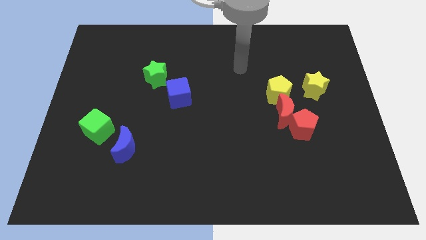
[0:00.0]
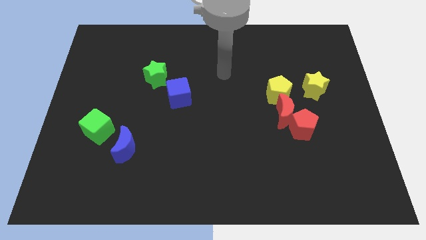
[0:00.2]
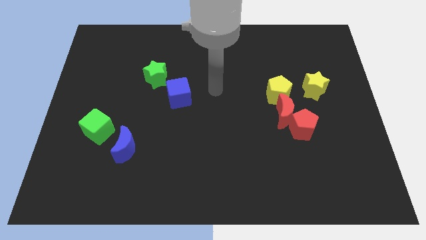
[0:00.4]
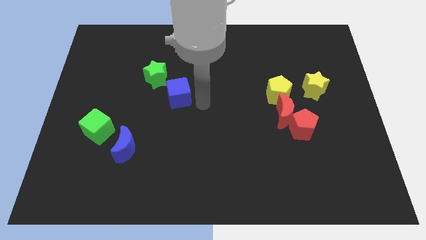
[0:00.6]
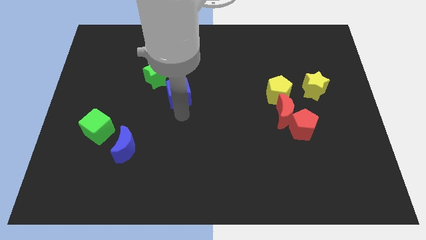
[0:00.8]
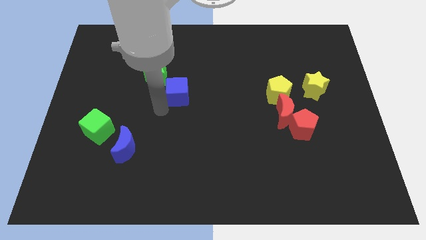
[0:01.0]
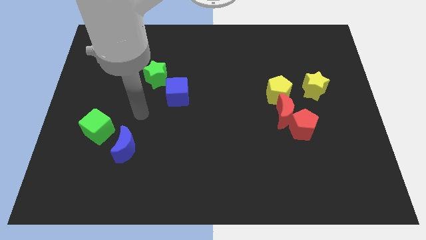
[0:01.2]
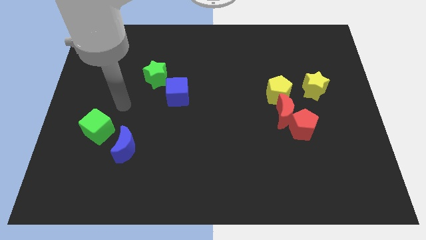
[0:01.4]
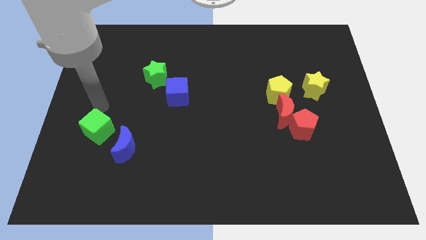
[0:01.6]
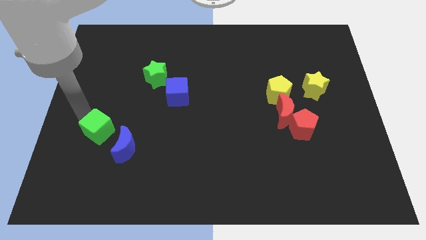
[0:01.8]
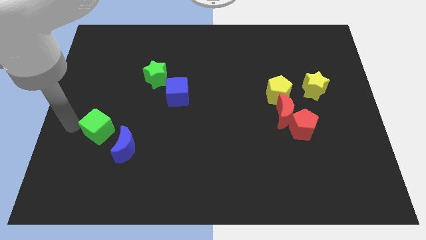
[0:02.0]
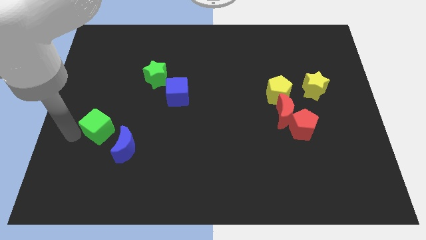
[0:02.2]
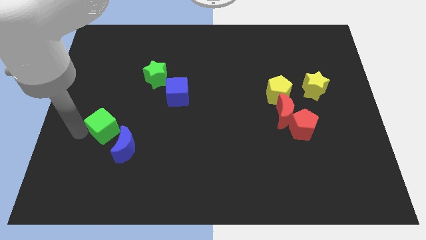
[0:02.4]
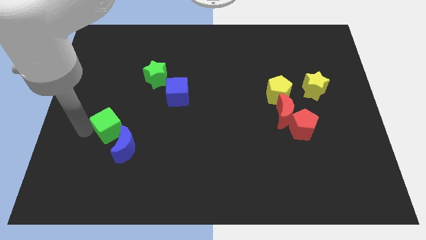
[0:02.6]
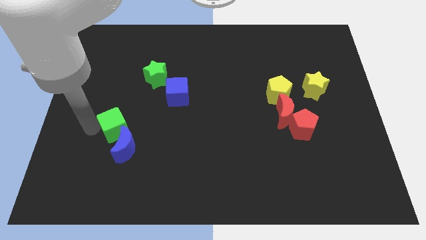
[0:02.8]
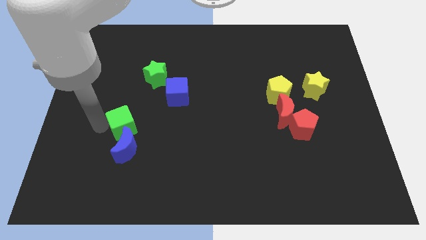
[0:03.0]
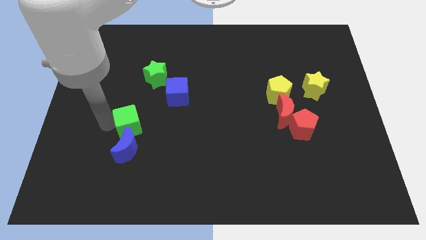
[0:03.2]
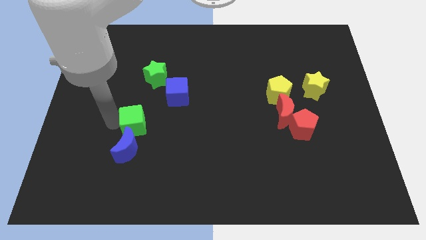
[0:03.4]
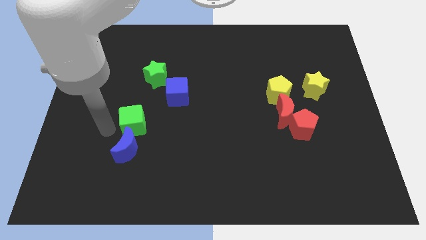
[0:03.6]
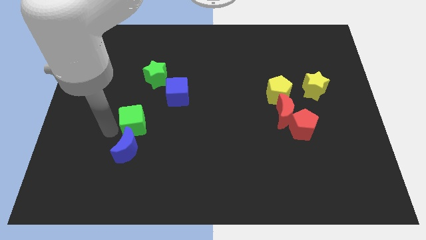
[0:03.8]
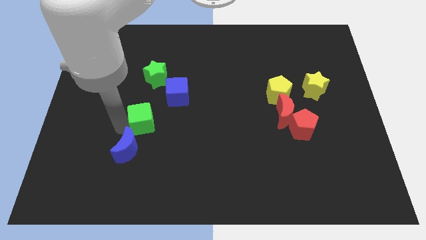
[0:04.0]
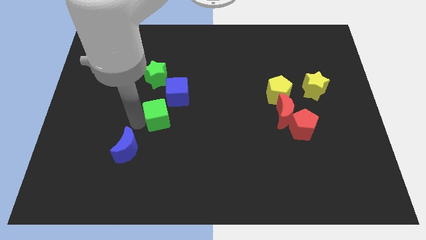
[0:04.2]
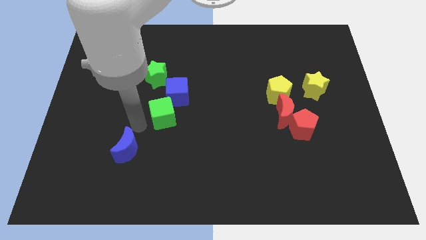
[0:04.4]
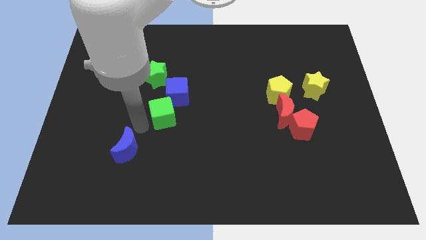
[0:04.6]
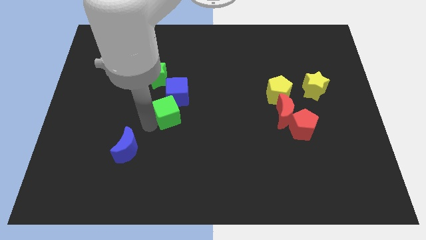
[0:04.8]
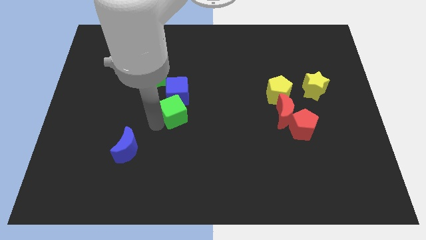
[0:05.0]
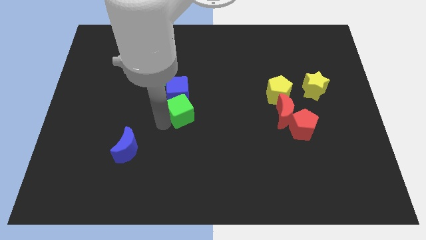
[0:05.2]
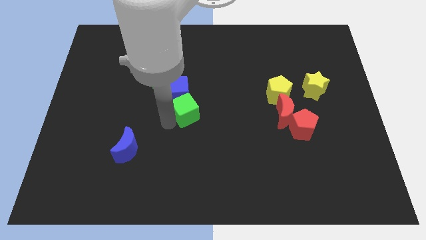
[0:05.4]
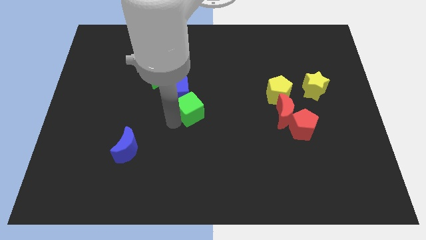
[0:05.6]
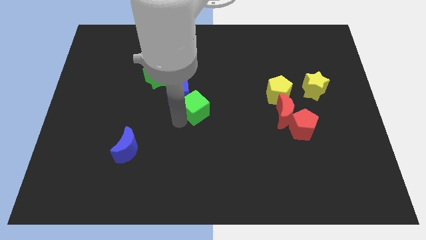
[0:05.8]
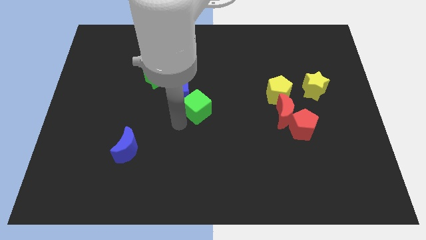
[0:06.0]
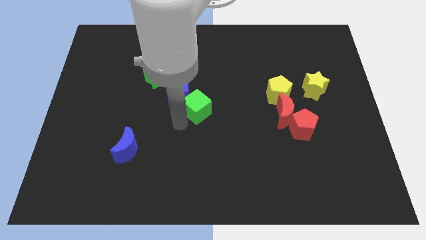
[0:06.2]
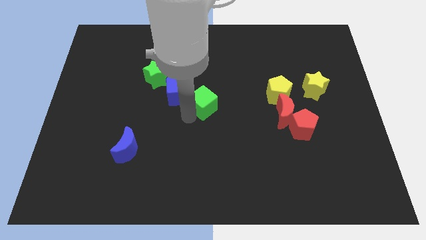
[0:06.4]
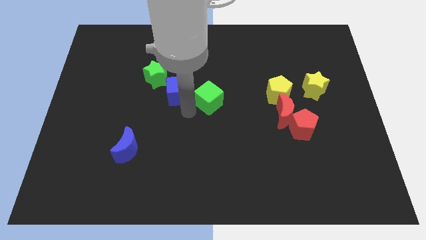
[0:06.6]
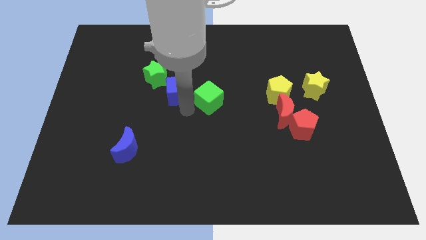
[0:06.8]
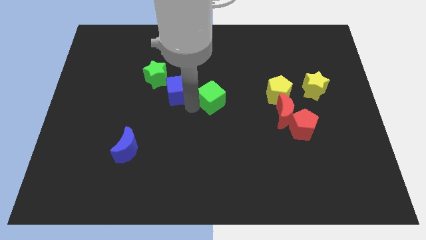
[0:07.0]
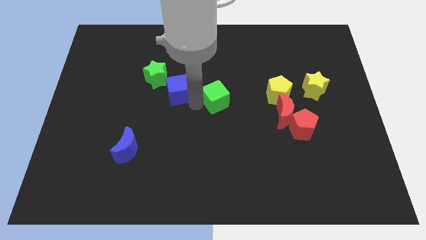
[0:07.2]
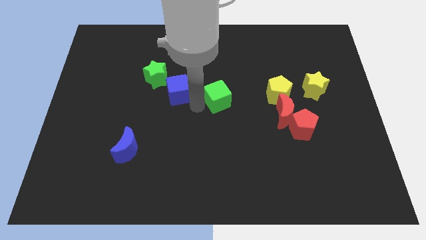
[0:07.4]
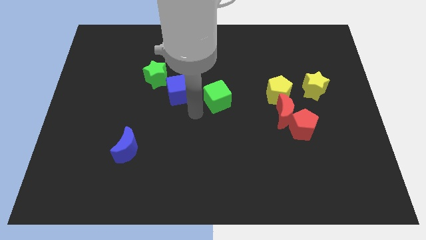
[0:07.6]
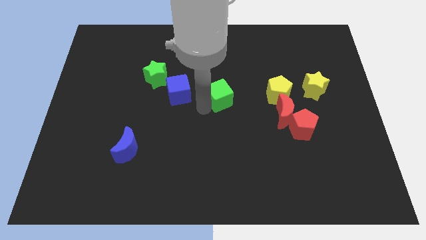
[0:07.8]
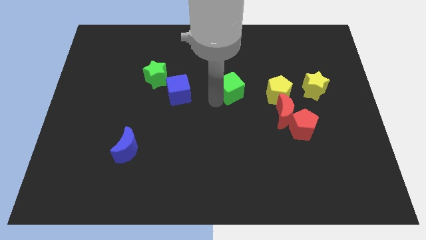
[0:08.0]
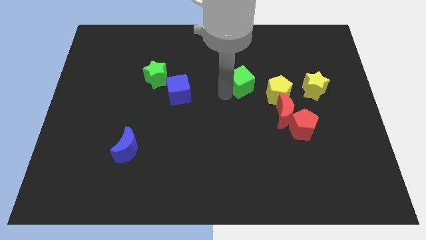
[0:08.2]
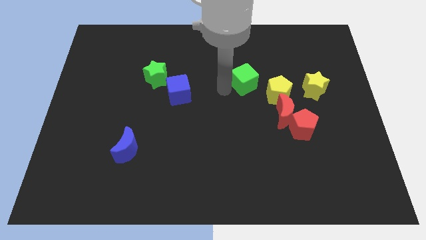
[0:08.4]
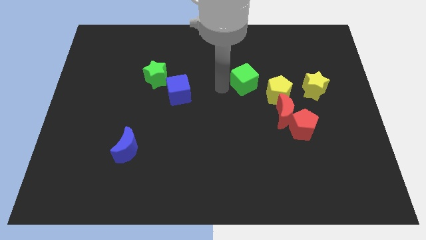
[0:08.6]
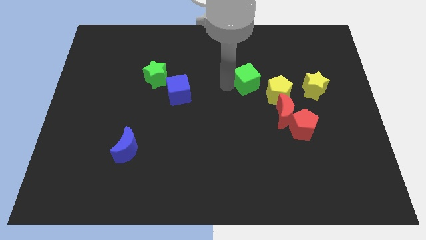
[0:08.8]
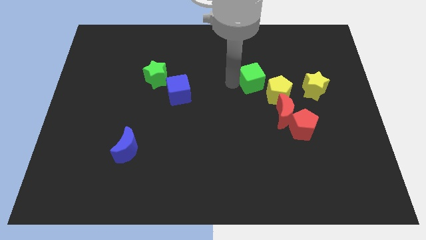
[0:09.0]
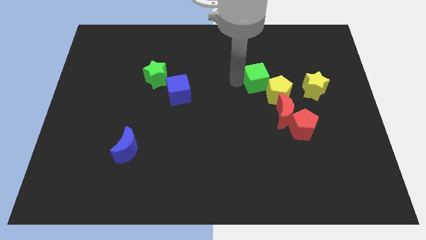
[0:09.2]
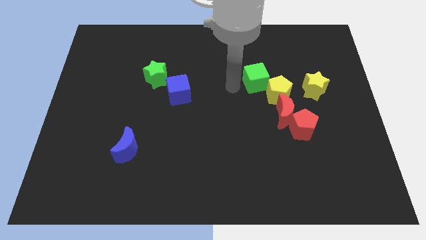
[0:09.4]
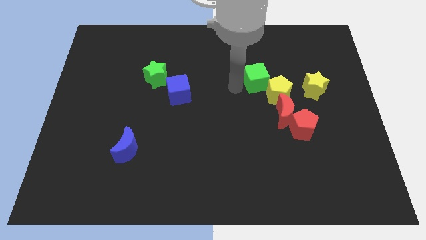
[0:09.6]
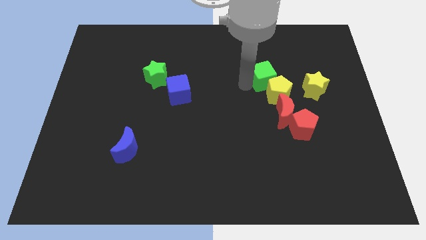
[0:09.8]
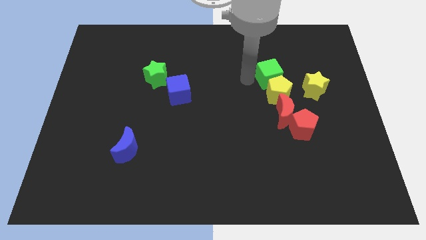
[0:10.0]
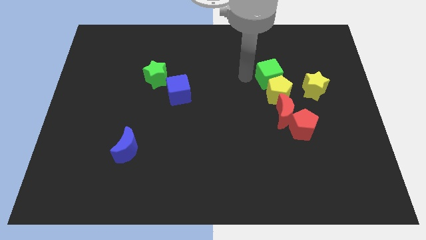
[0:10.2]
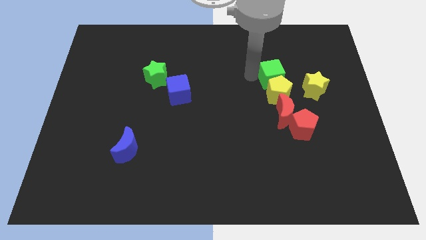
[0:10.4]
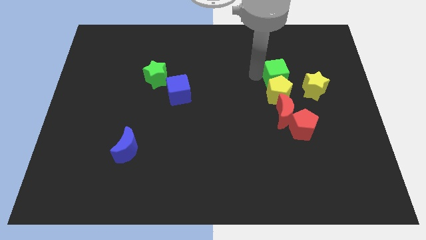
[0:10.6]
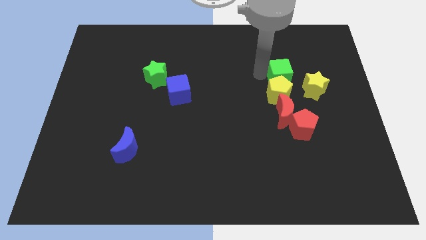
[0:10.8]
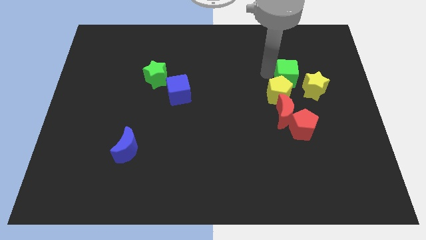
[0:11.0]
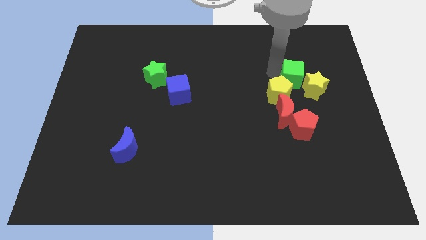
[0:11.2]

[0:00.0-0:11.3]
push the green cube close to the yellow star

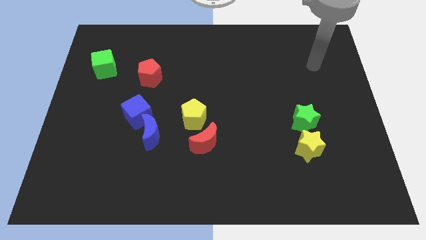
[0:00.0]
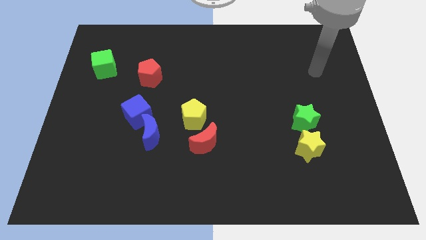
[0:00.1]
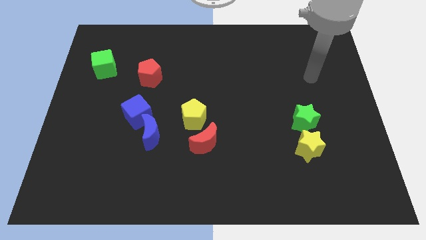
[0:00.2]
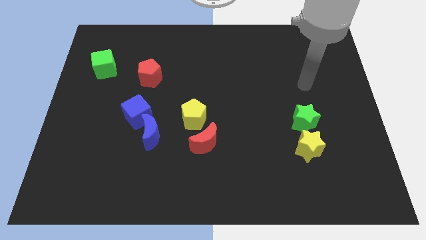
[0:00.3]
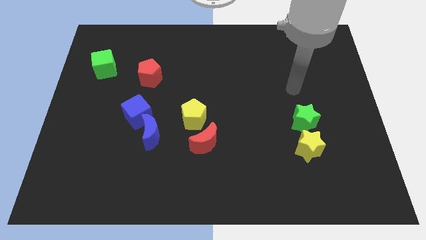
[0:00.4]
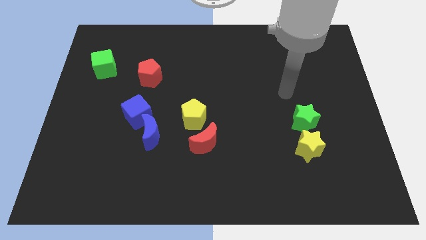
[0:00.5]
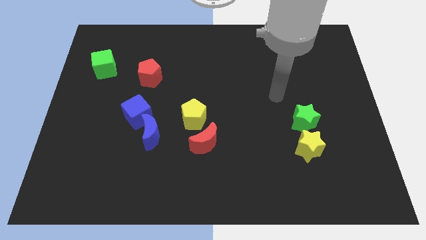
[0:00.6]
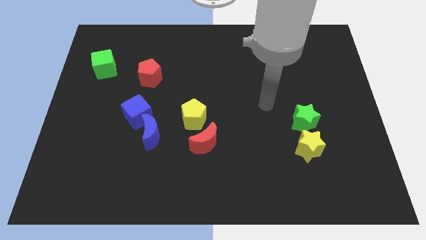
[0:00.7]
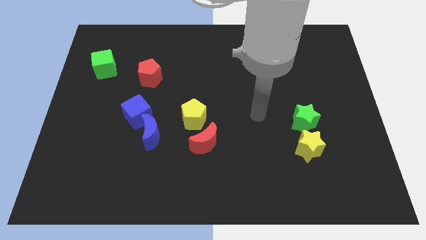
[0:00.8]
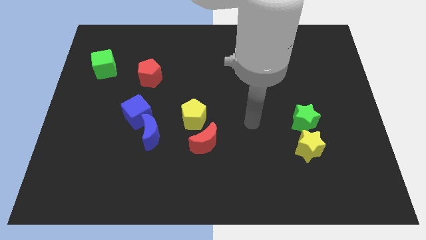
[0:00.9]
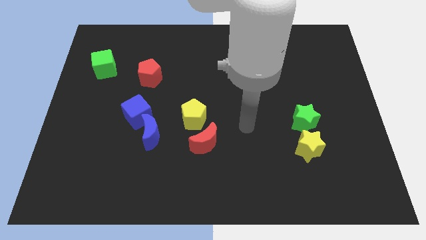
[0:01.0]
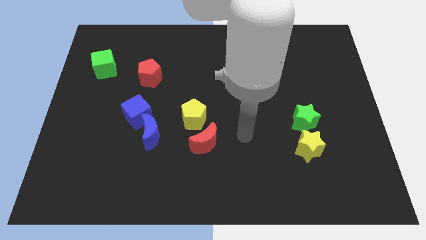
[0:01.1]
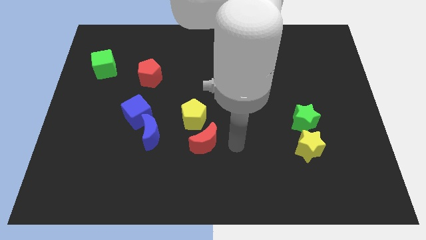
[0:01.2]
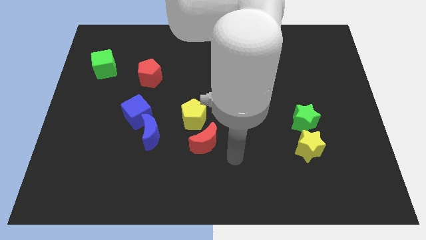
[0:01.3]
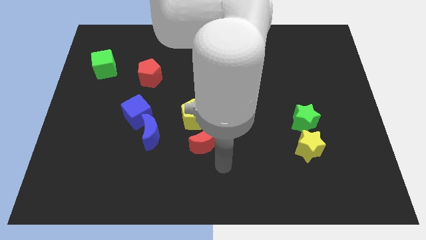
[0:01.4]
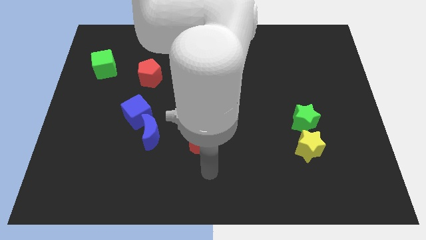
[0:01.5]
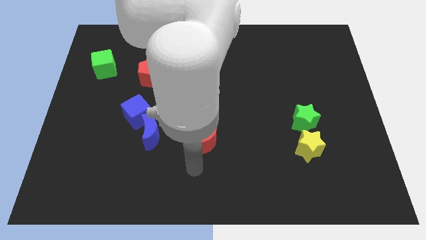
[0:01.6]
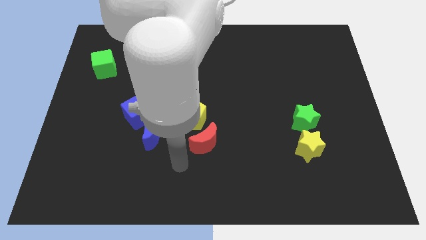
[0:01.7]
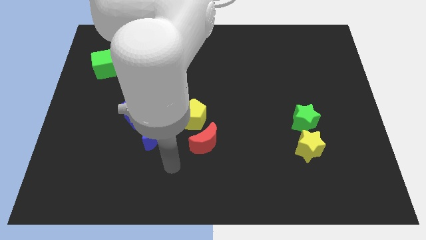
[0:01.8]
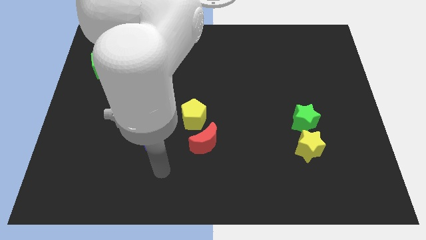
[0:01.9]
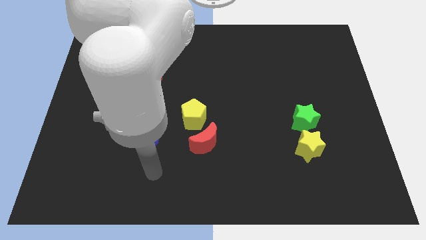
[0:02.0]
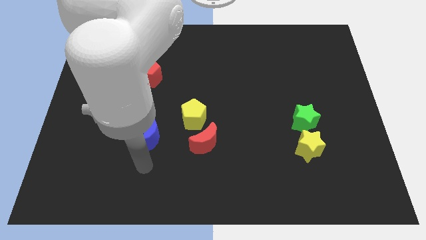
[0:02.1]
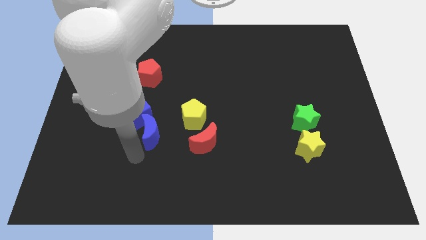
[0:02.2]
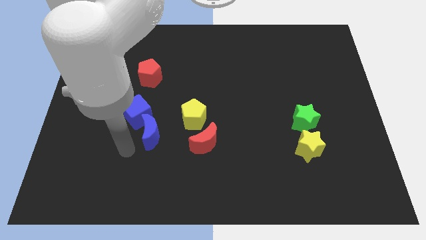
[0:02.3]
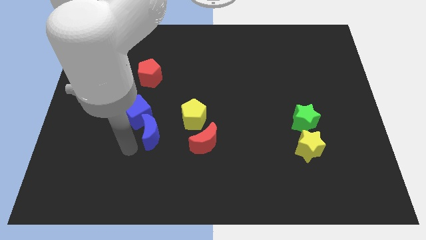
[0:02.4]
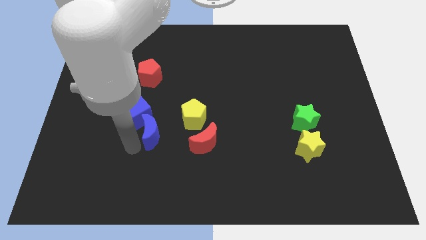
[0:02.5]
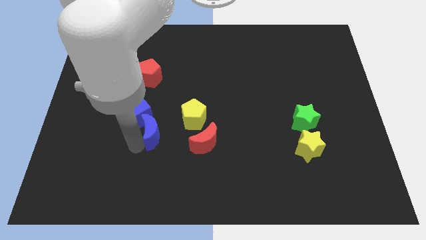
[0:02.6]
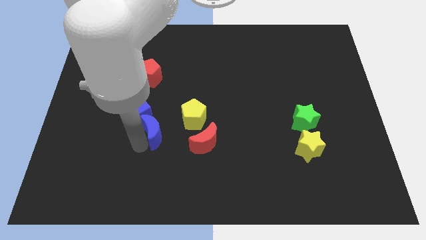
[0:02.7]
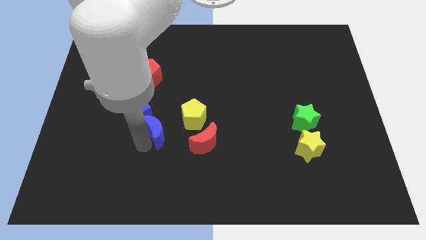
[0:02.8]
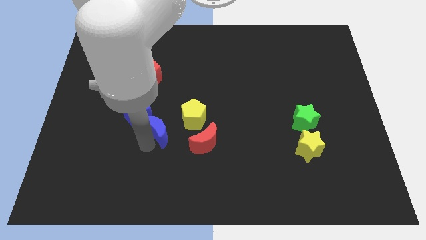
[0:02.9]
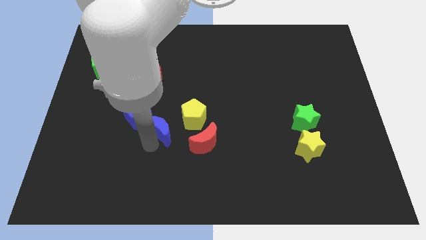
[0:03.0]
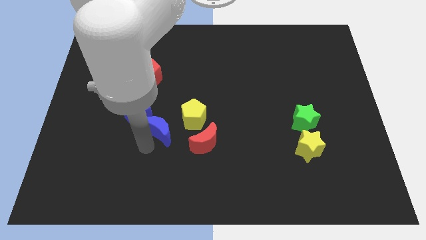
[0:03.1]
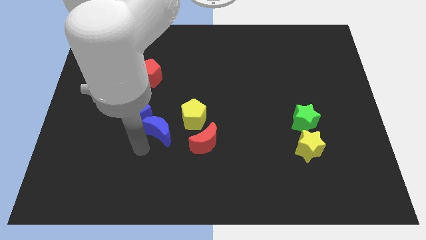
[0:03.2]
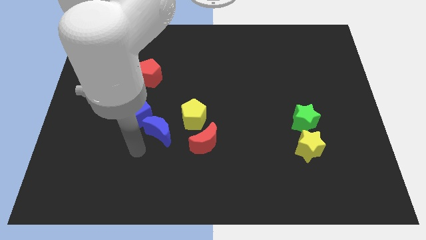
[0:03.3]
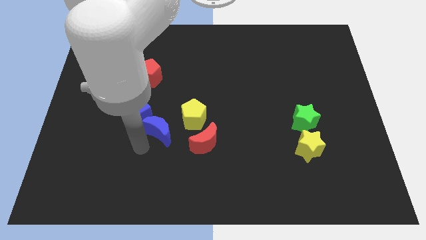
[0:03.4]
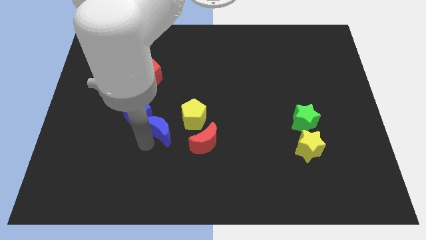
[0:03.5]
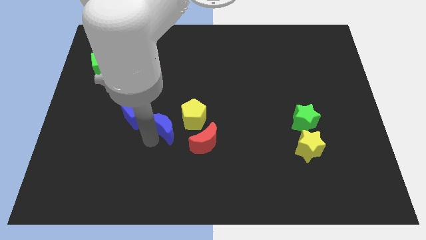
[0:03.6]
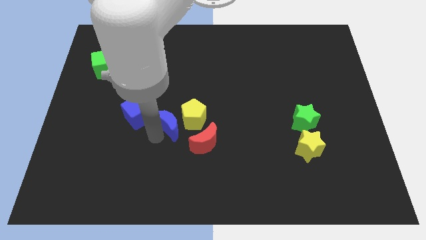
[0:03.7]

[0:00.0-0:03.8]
put the blue moon close to the yellow pentagon
